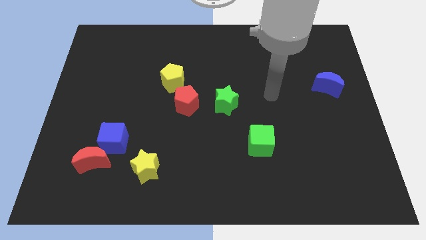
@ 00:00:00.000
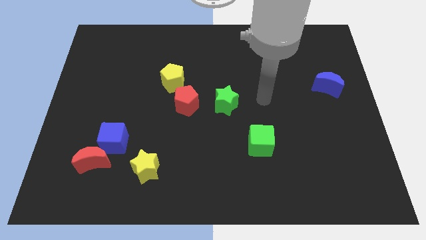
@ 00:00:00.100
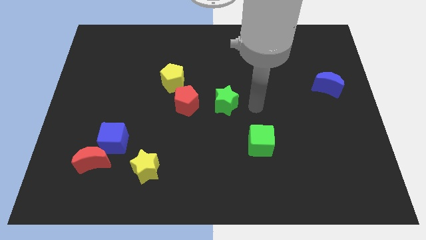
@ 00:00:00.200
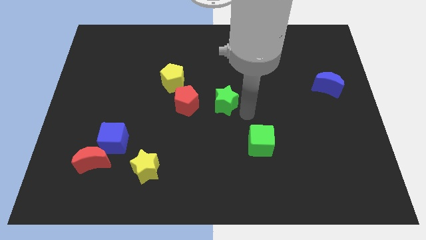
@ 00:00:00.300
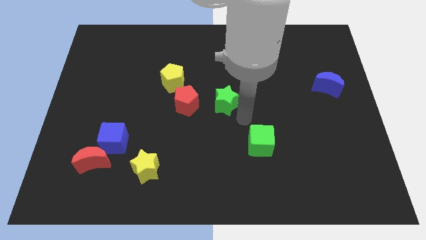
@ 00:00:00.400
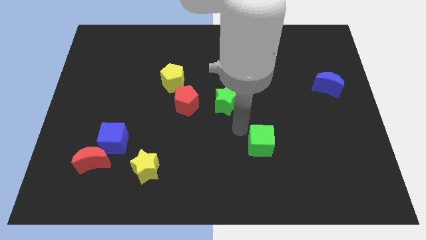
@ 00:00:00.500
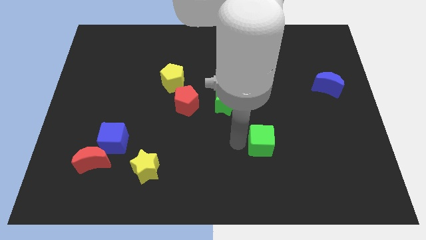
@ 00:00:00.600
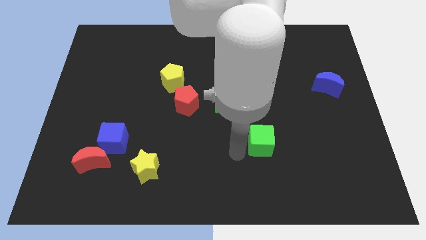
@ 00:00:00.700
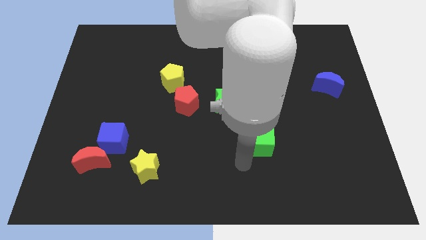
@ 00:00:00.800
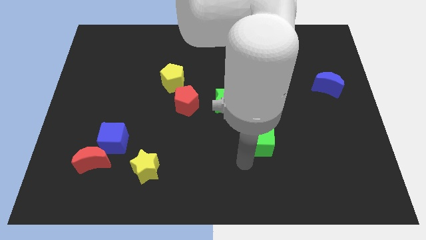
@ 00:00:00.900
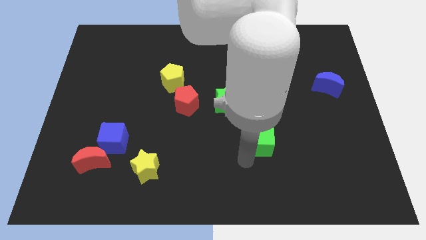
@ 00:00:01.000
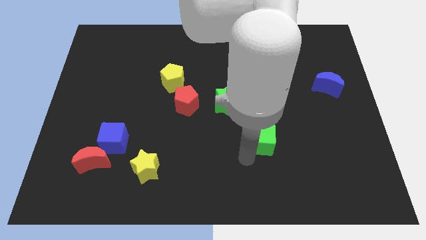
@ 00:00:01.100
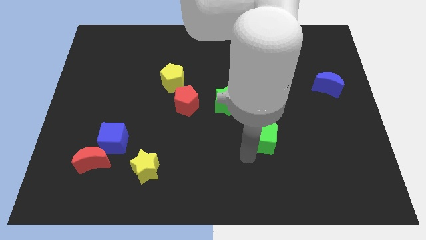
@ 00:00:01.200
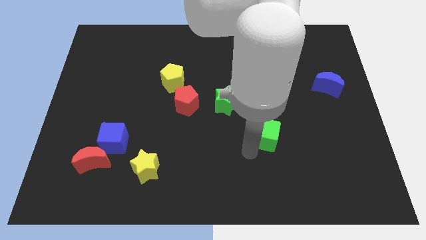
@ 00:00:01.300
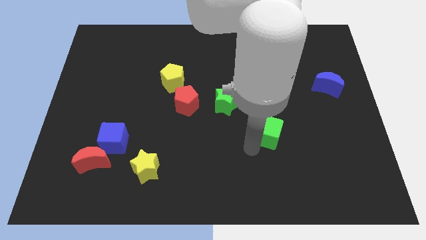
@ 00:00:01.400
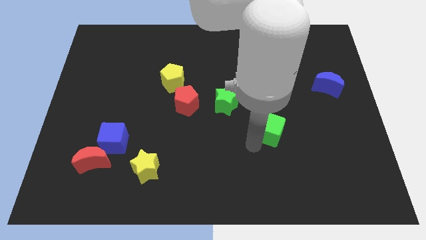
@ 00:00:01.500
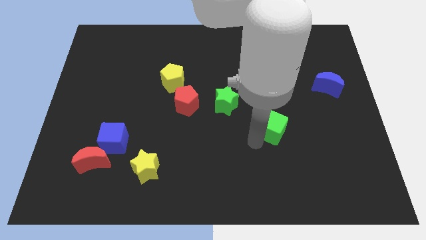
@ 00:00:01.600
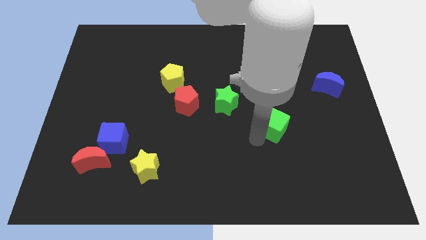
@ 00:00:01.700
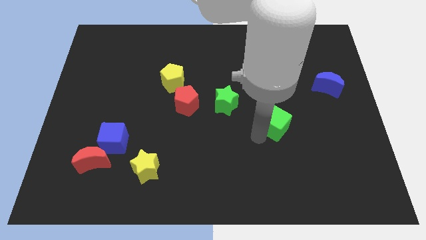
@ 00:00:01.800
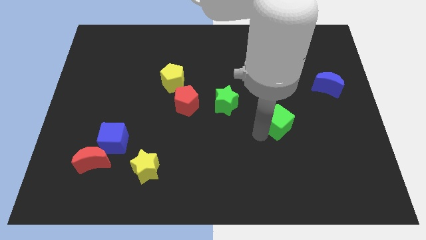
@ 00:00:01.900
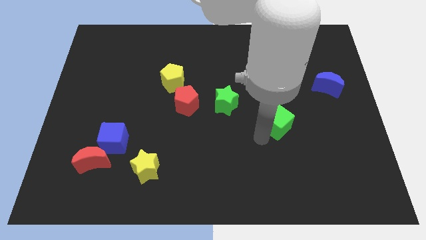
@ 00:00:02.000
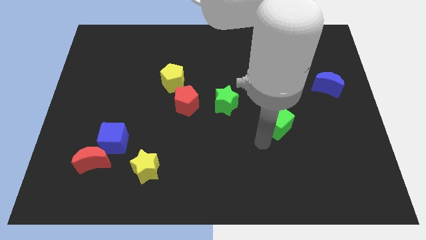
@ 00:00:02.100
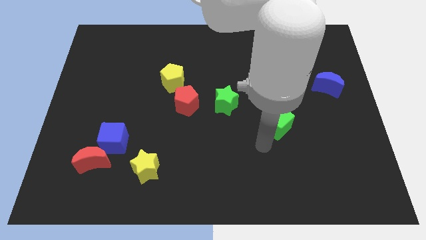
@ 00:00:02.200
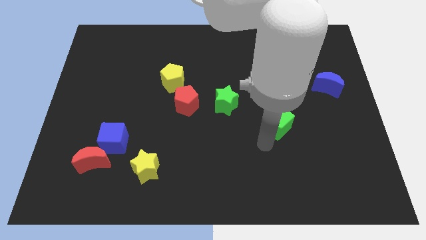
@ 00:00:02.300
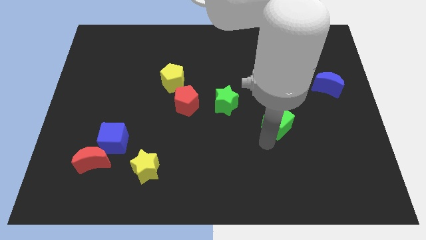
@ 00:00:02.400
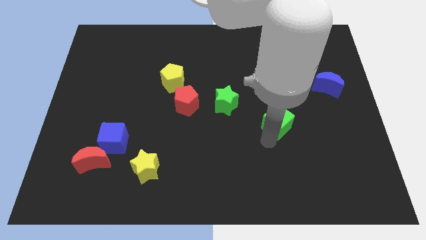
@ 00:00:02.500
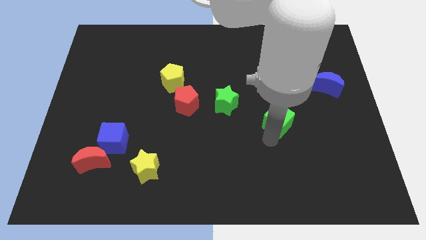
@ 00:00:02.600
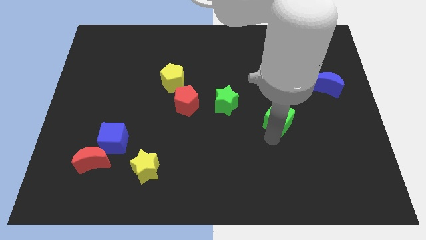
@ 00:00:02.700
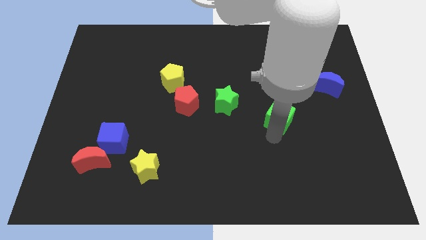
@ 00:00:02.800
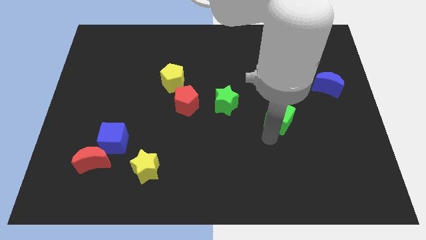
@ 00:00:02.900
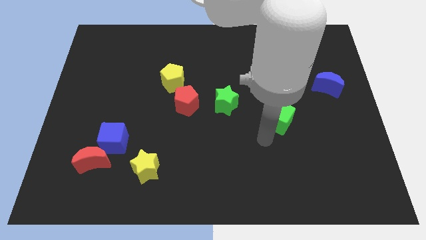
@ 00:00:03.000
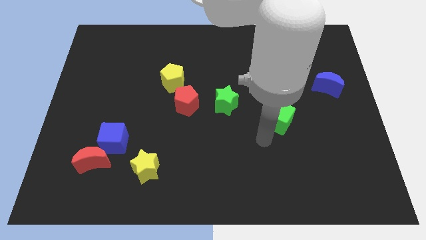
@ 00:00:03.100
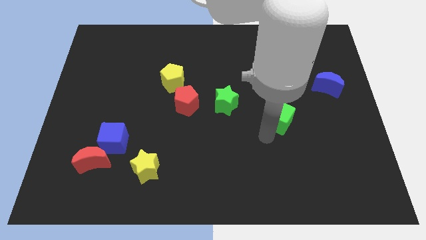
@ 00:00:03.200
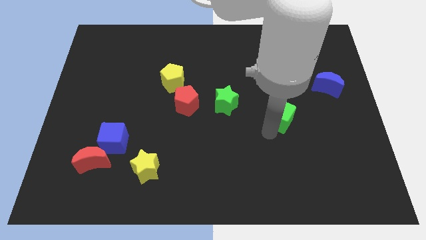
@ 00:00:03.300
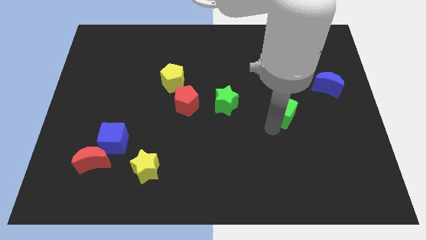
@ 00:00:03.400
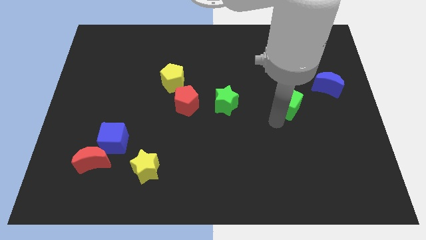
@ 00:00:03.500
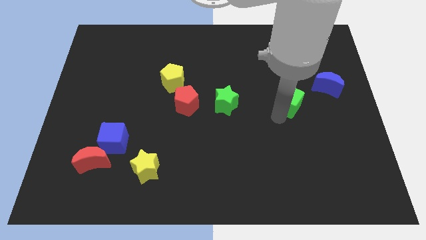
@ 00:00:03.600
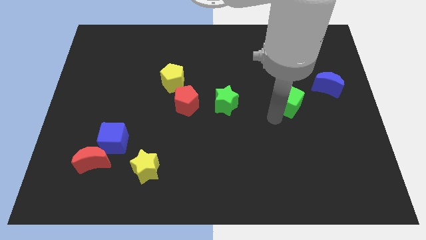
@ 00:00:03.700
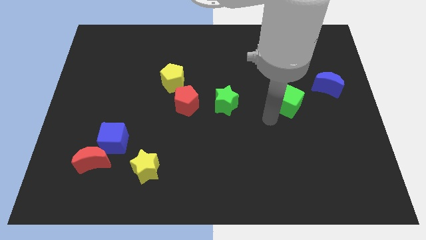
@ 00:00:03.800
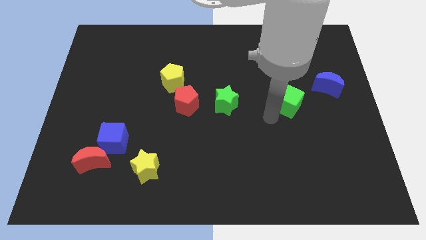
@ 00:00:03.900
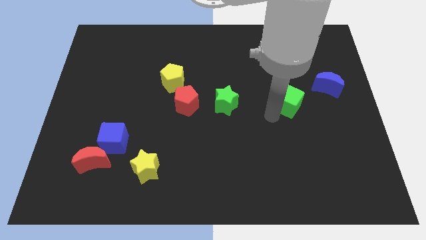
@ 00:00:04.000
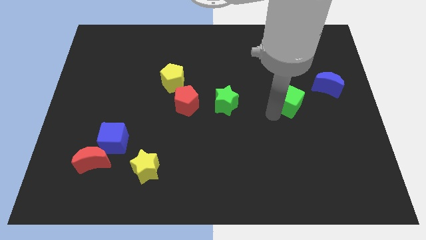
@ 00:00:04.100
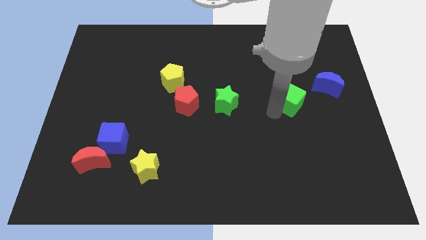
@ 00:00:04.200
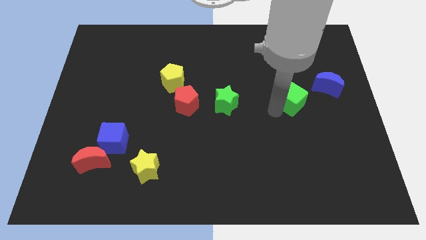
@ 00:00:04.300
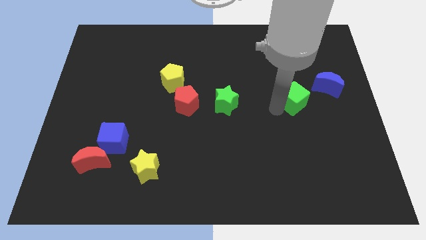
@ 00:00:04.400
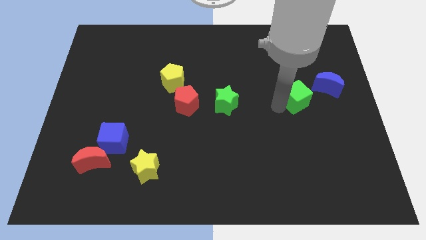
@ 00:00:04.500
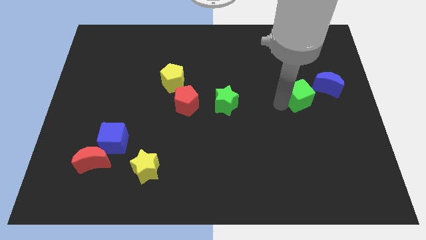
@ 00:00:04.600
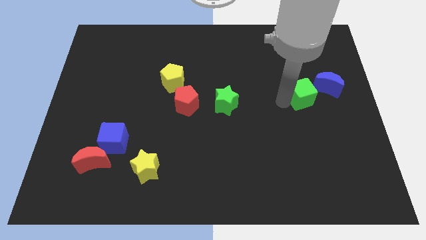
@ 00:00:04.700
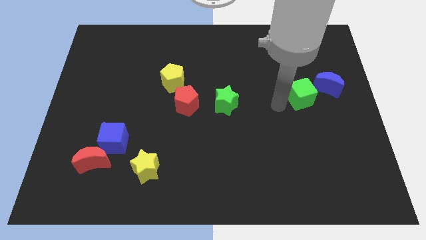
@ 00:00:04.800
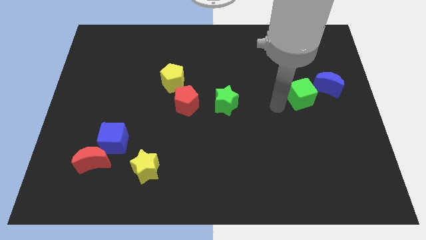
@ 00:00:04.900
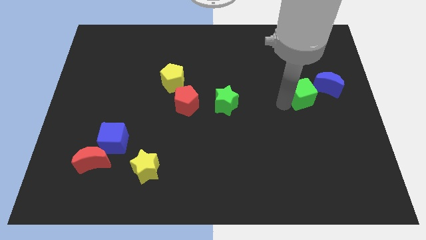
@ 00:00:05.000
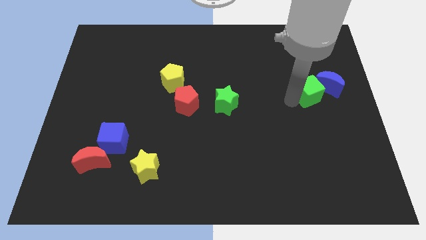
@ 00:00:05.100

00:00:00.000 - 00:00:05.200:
move the green cube towards the blue moon

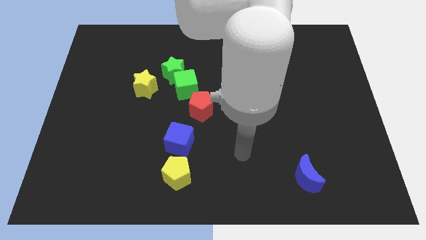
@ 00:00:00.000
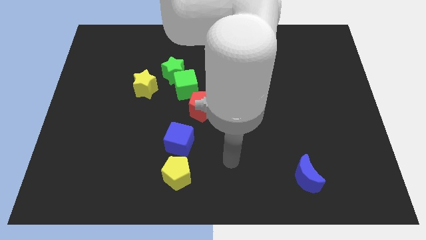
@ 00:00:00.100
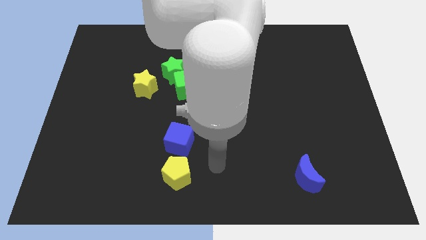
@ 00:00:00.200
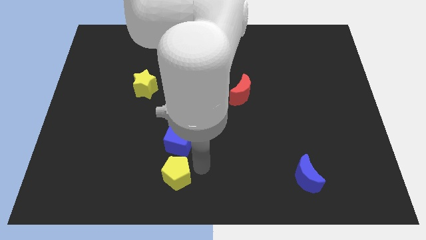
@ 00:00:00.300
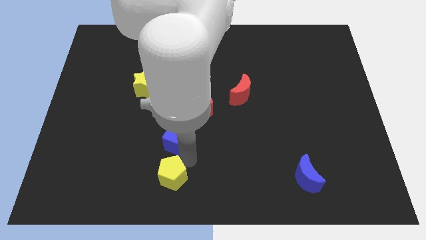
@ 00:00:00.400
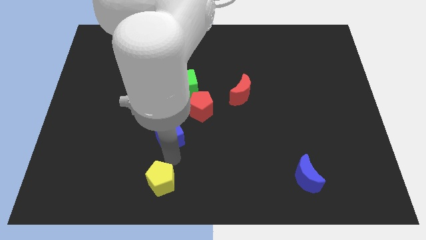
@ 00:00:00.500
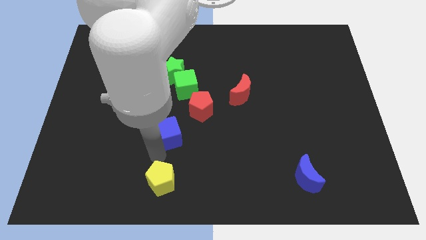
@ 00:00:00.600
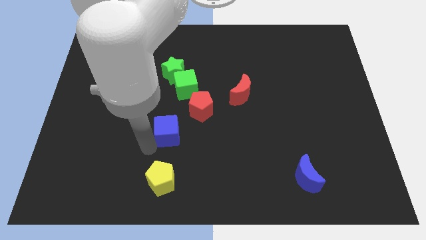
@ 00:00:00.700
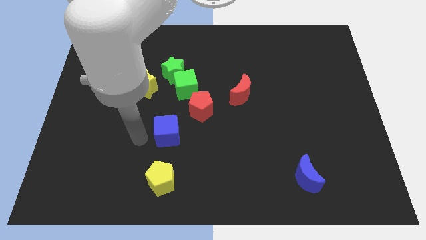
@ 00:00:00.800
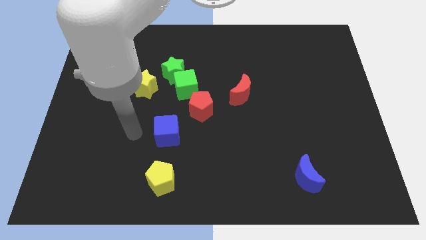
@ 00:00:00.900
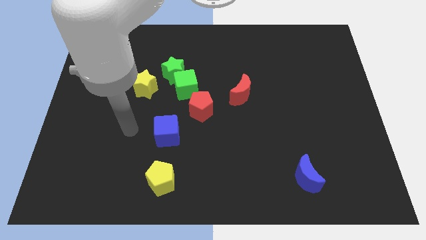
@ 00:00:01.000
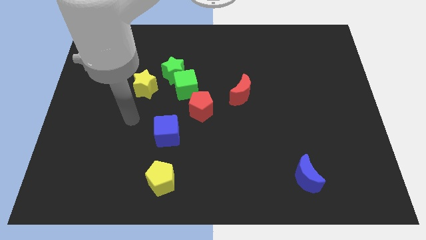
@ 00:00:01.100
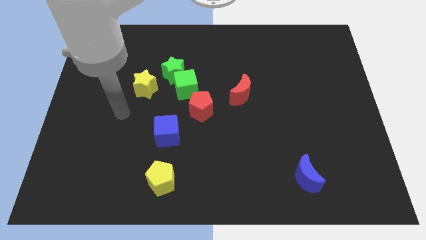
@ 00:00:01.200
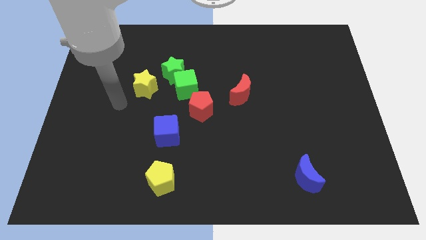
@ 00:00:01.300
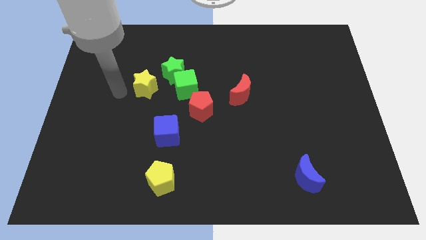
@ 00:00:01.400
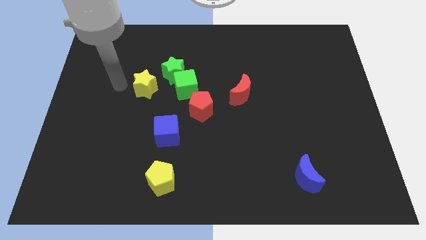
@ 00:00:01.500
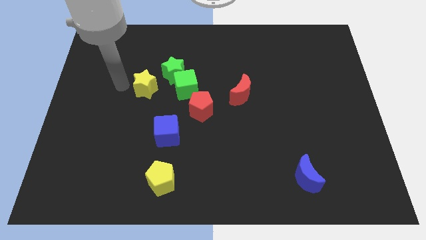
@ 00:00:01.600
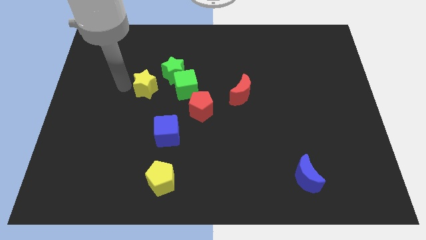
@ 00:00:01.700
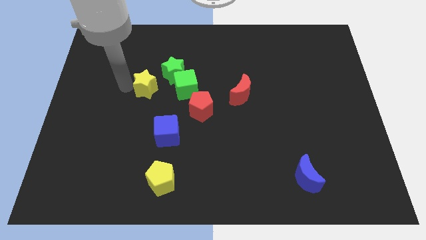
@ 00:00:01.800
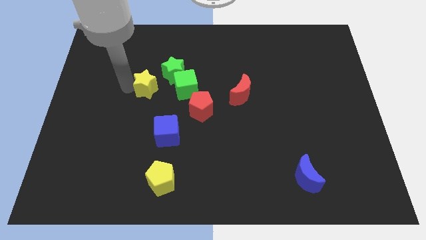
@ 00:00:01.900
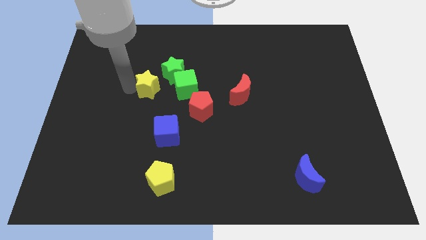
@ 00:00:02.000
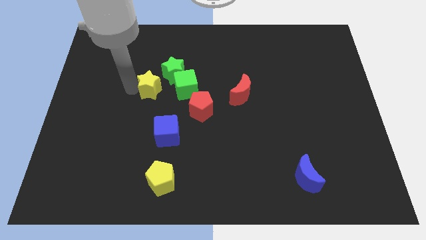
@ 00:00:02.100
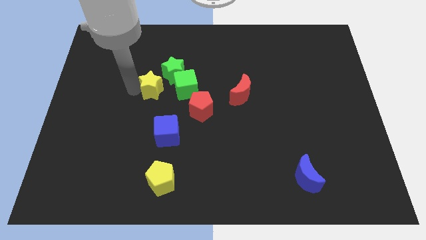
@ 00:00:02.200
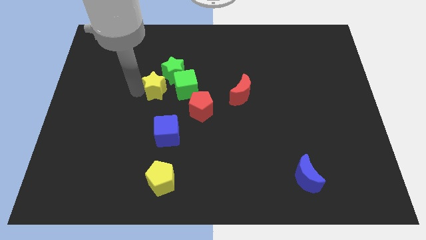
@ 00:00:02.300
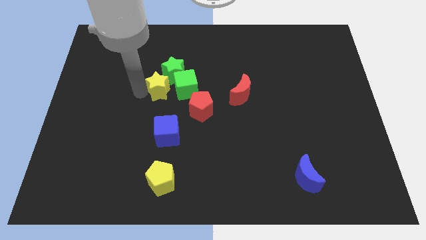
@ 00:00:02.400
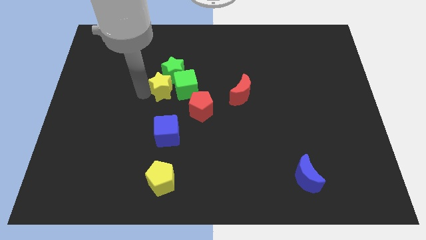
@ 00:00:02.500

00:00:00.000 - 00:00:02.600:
push the yellow star towards the green cube
